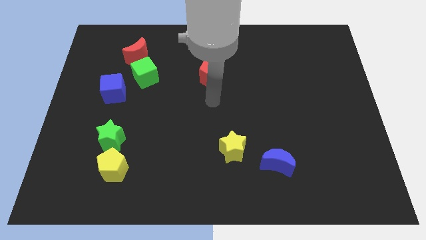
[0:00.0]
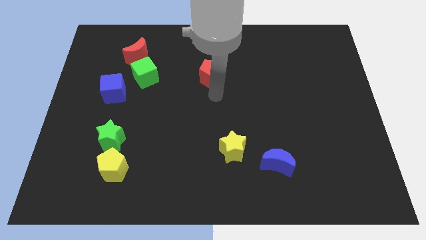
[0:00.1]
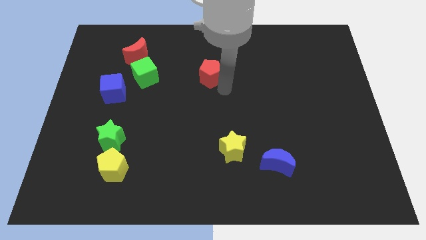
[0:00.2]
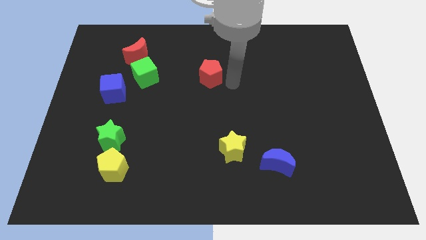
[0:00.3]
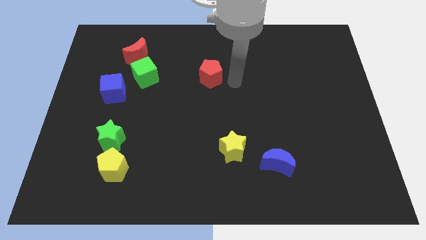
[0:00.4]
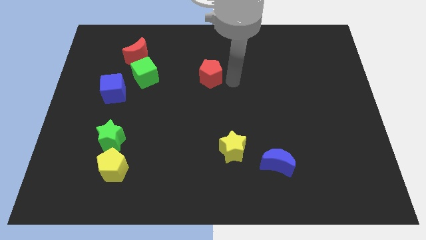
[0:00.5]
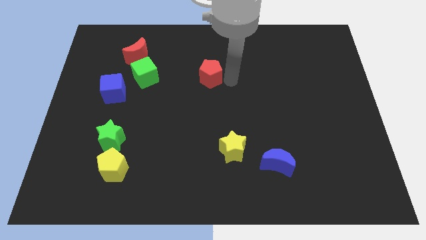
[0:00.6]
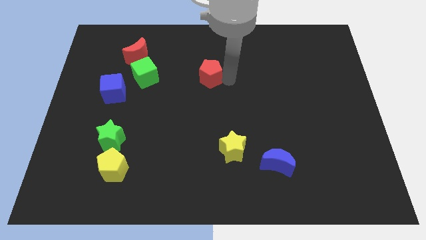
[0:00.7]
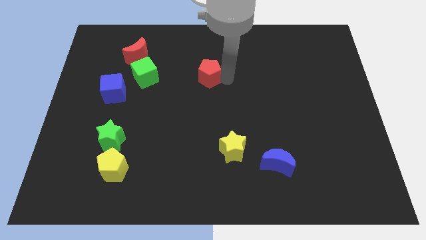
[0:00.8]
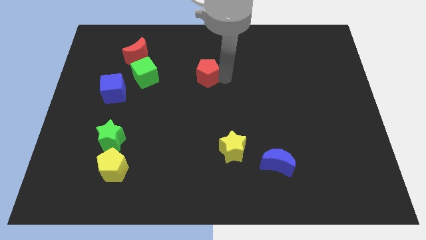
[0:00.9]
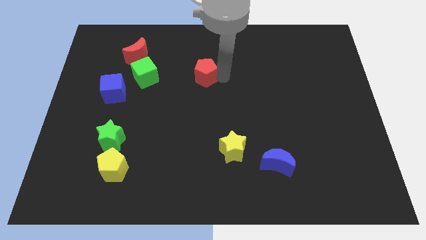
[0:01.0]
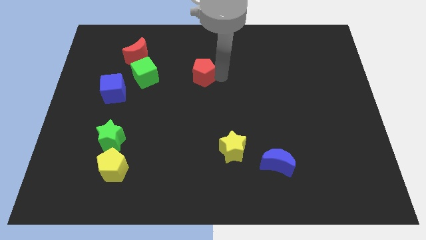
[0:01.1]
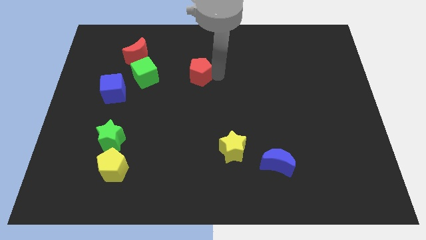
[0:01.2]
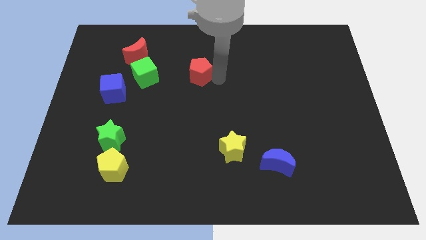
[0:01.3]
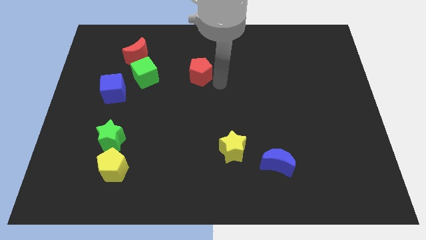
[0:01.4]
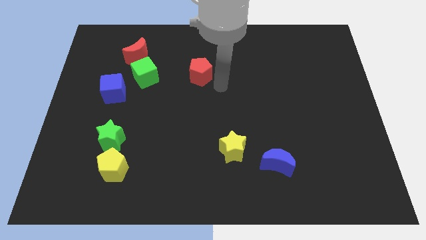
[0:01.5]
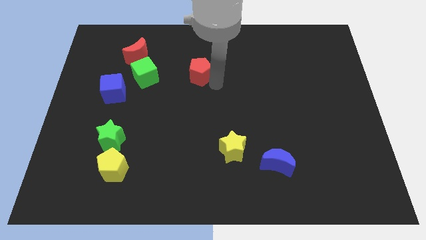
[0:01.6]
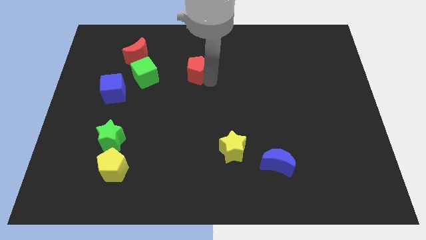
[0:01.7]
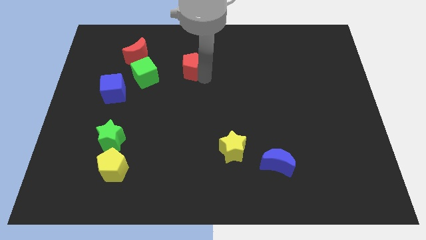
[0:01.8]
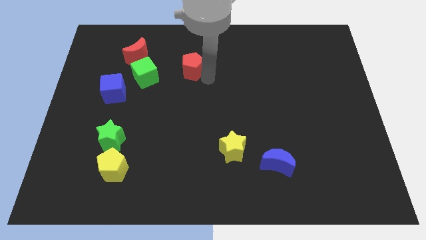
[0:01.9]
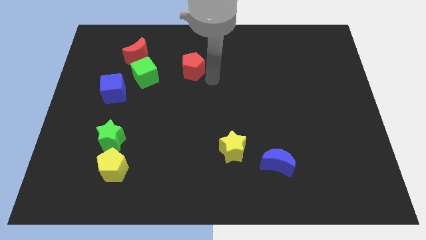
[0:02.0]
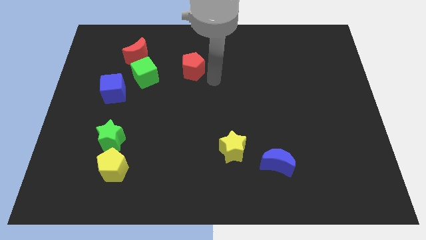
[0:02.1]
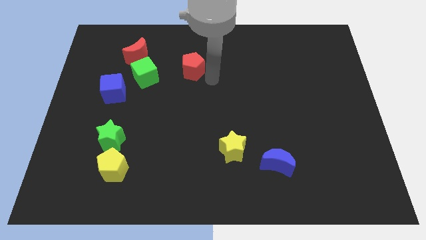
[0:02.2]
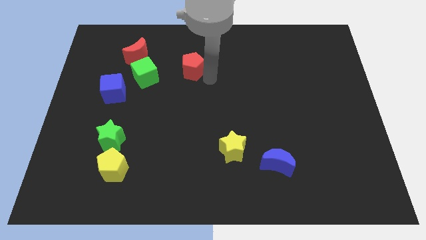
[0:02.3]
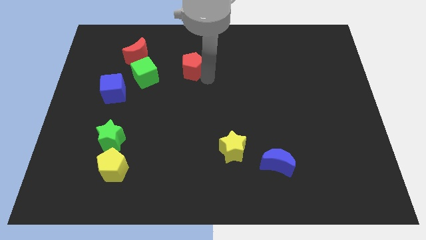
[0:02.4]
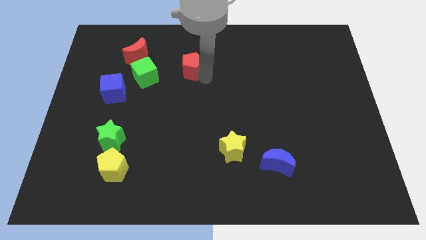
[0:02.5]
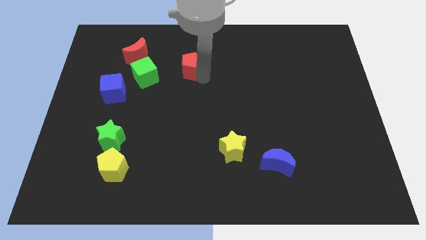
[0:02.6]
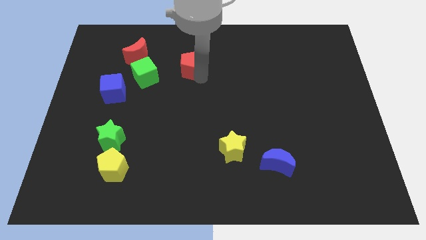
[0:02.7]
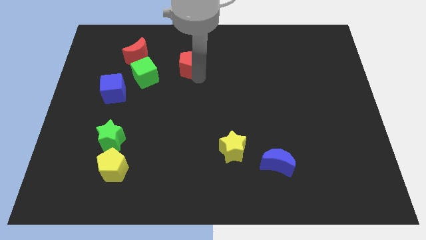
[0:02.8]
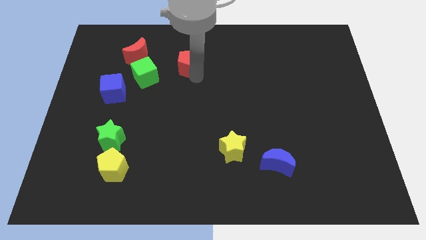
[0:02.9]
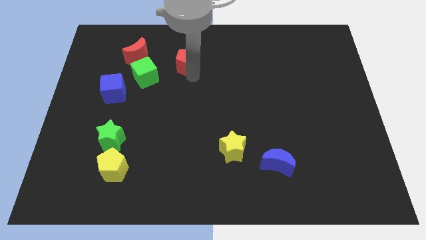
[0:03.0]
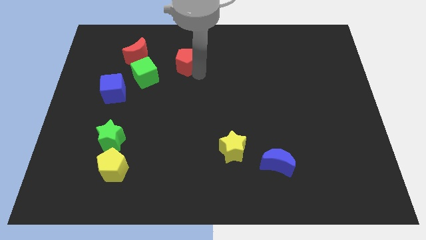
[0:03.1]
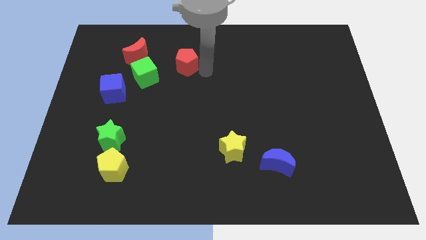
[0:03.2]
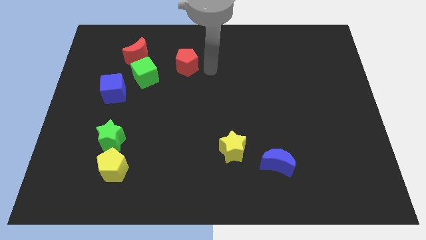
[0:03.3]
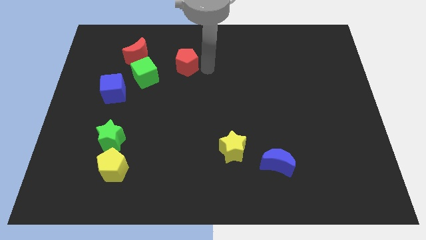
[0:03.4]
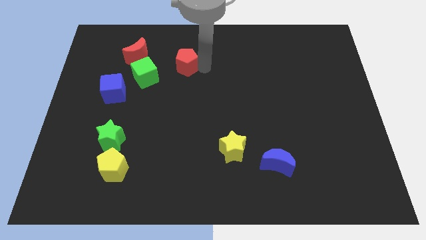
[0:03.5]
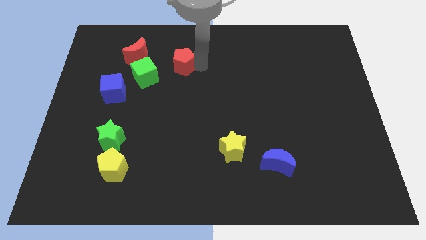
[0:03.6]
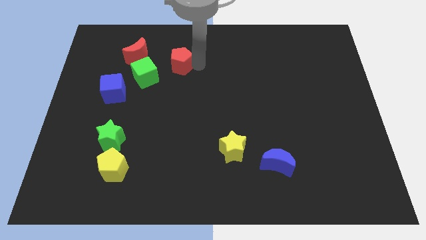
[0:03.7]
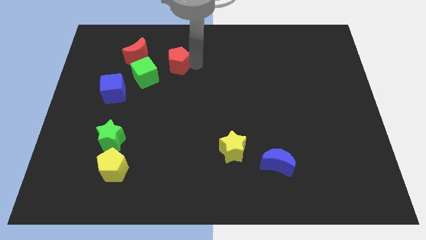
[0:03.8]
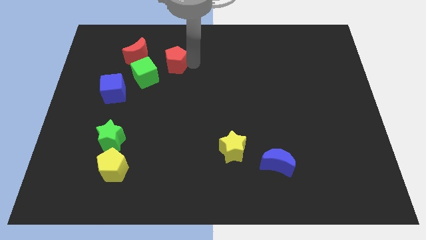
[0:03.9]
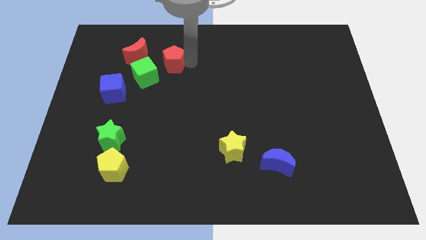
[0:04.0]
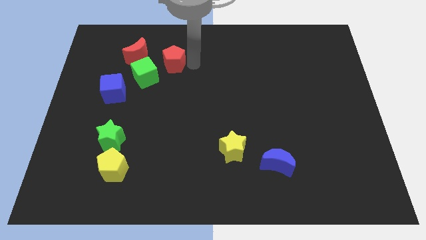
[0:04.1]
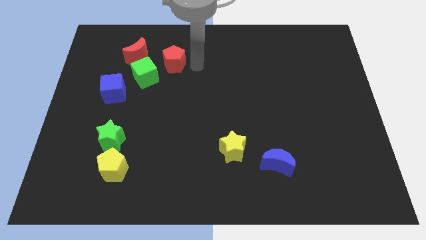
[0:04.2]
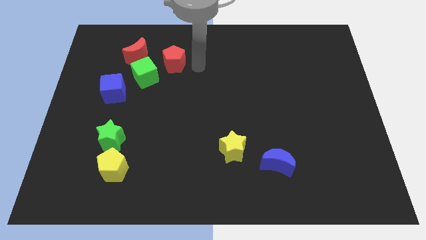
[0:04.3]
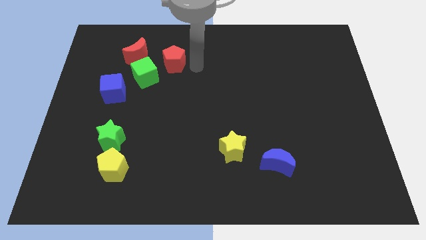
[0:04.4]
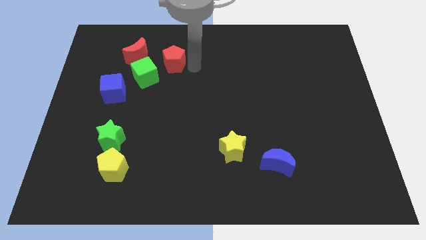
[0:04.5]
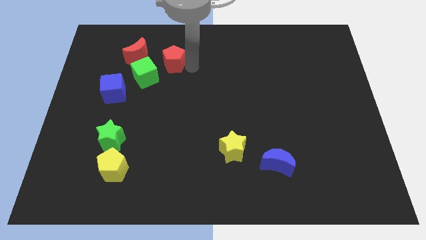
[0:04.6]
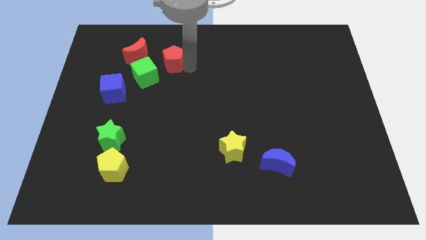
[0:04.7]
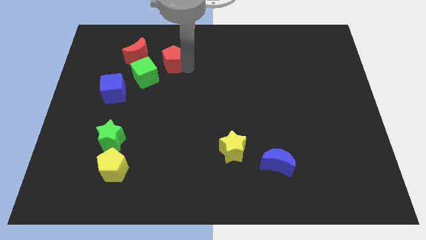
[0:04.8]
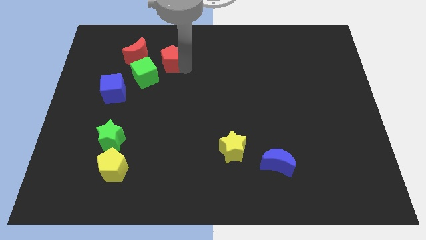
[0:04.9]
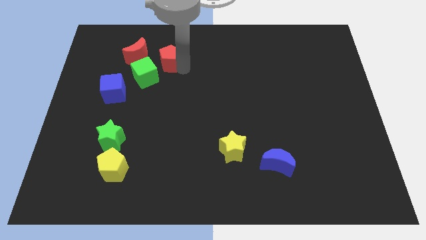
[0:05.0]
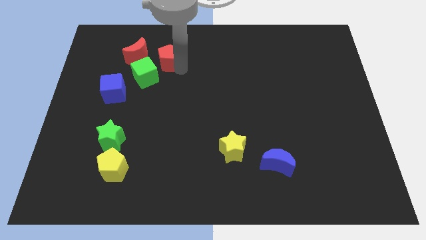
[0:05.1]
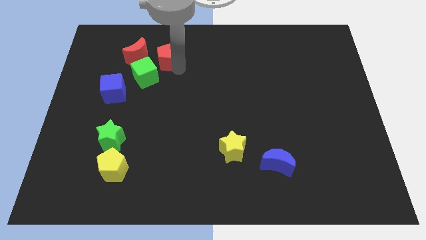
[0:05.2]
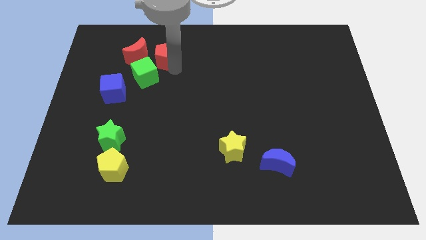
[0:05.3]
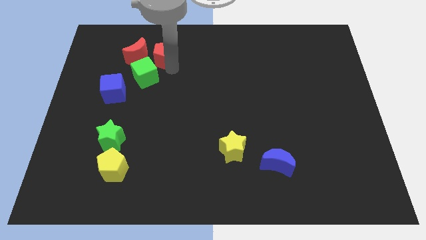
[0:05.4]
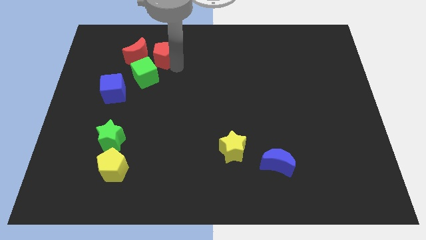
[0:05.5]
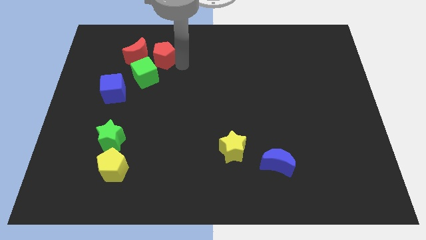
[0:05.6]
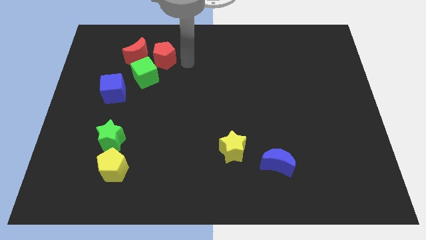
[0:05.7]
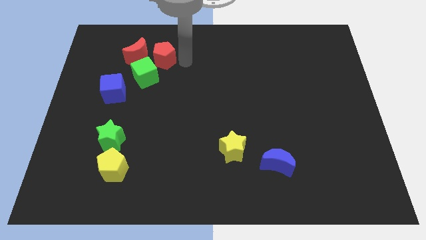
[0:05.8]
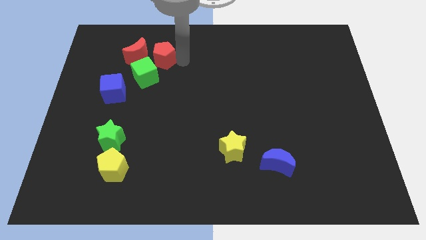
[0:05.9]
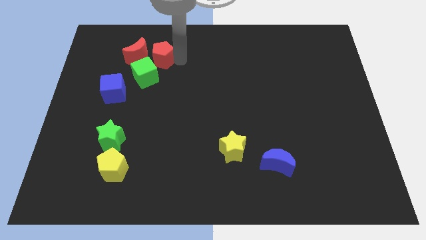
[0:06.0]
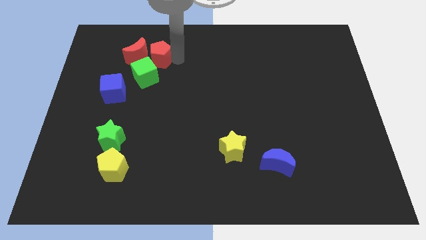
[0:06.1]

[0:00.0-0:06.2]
put the red pentagon close to the red moon

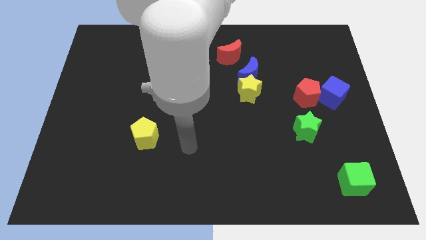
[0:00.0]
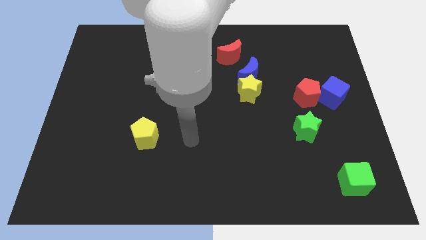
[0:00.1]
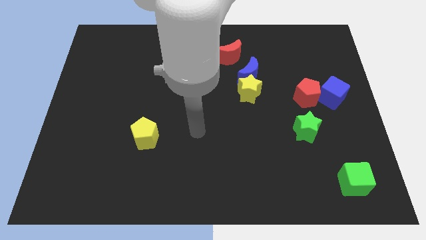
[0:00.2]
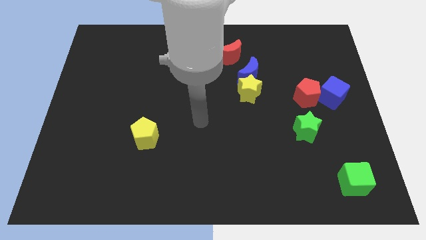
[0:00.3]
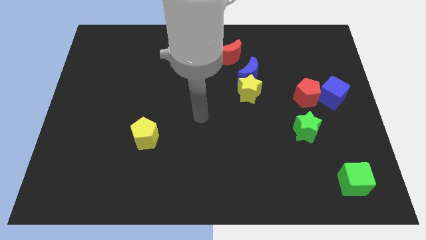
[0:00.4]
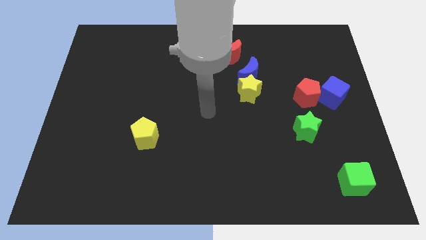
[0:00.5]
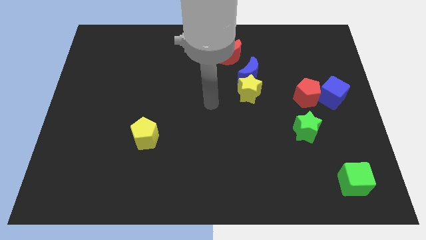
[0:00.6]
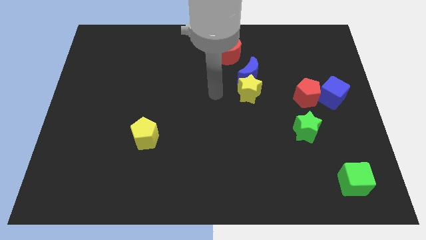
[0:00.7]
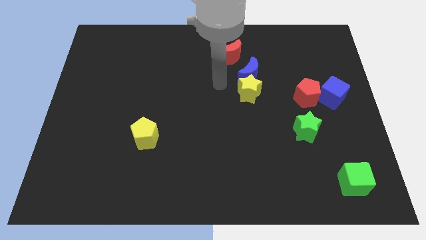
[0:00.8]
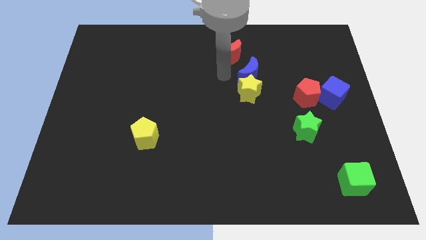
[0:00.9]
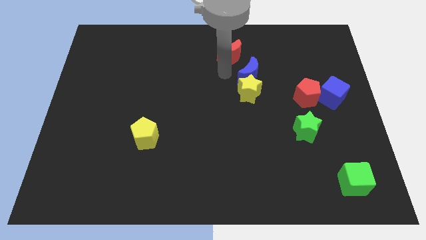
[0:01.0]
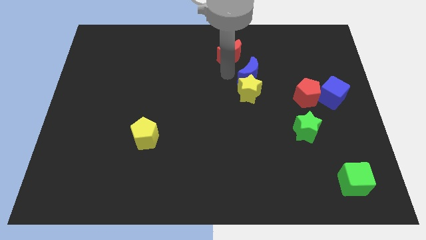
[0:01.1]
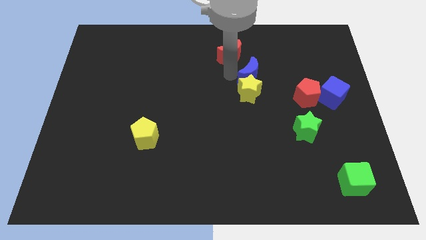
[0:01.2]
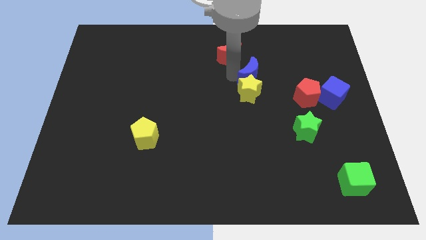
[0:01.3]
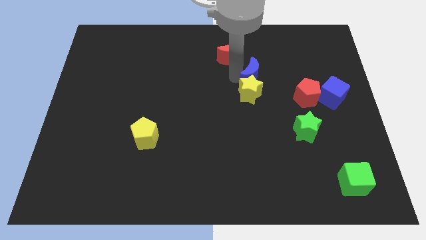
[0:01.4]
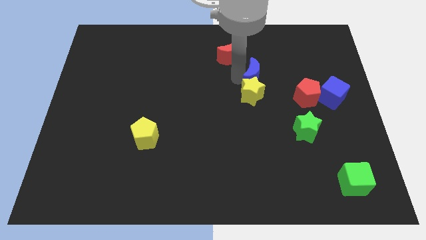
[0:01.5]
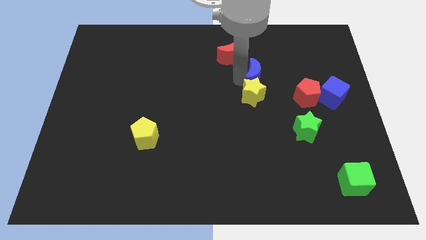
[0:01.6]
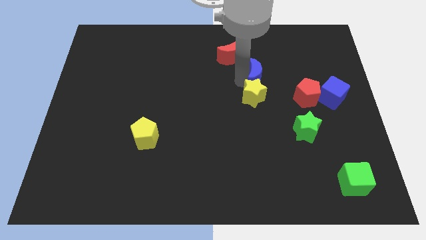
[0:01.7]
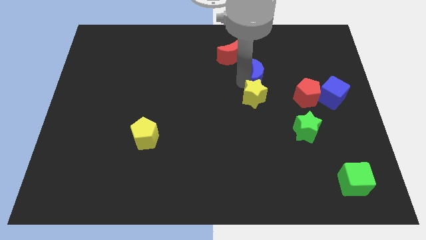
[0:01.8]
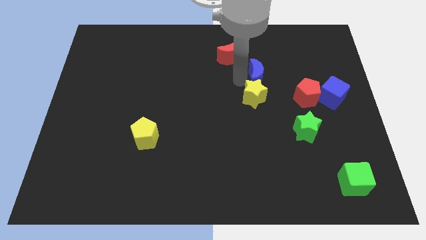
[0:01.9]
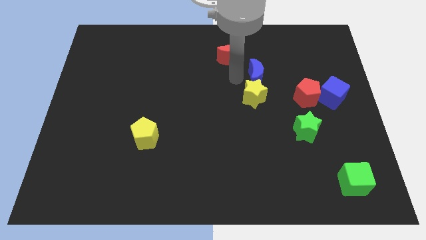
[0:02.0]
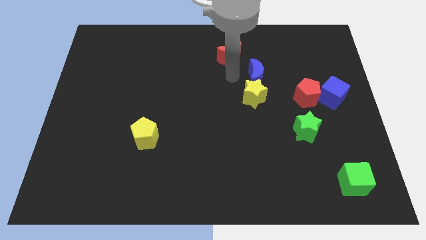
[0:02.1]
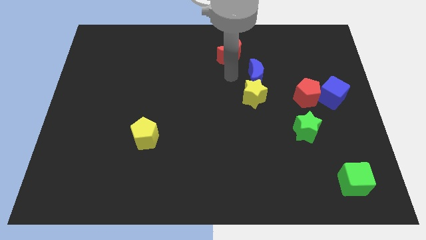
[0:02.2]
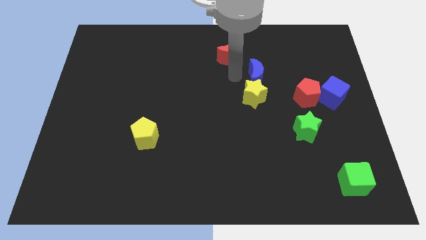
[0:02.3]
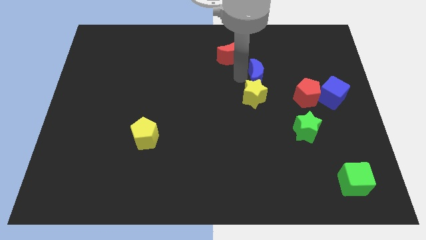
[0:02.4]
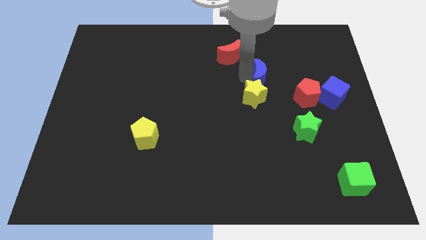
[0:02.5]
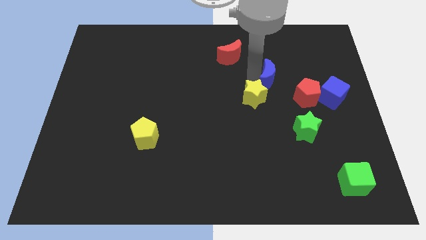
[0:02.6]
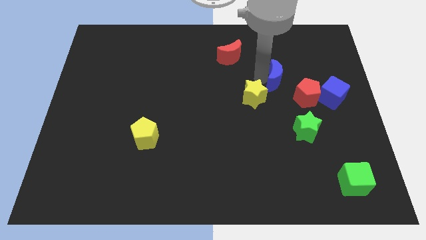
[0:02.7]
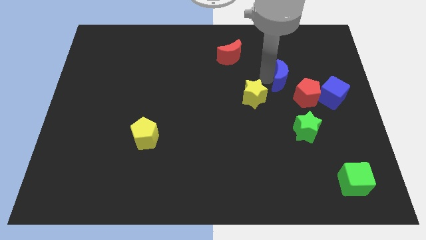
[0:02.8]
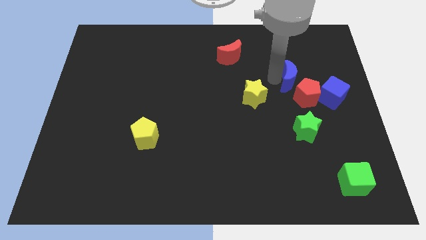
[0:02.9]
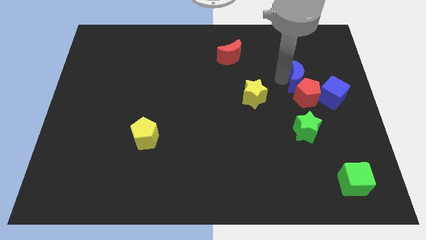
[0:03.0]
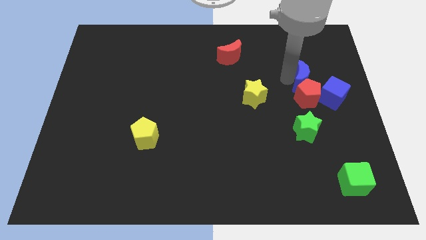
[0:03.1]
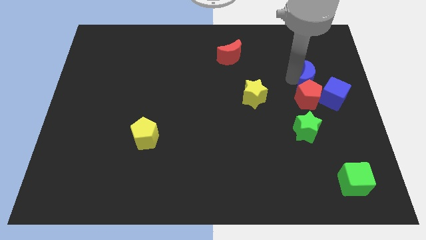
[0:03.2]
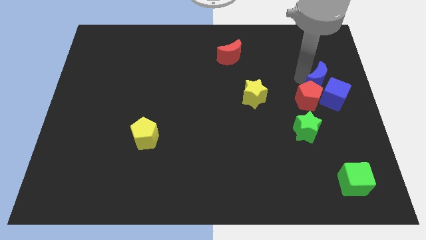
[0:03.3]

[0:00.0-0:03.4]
slide the blue moon to the blue cube
